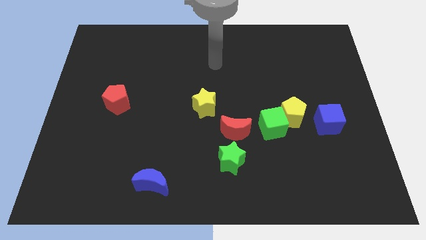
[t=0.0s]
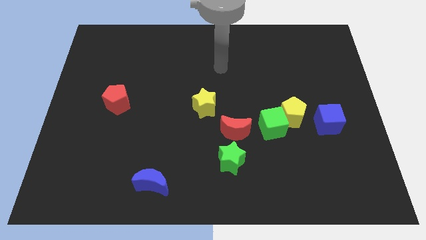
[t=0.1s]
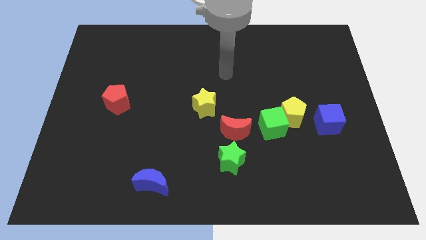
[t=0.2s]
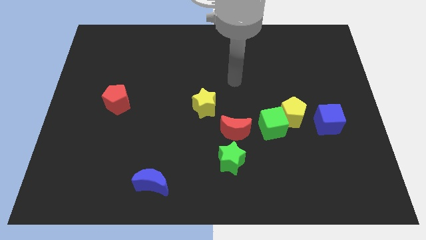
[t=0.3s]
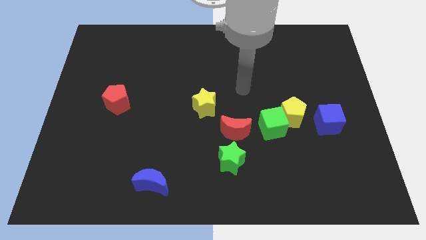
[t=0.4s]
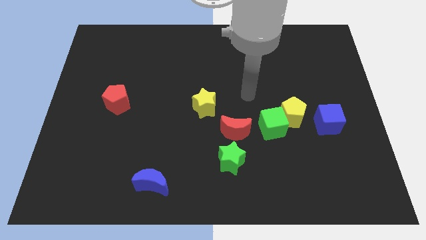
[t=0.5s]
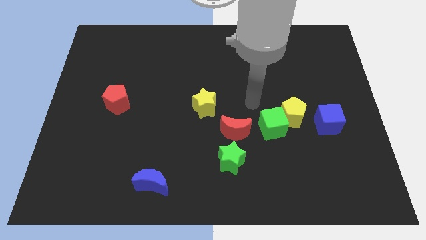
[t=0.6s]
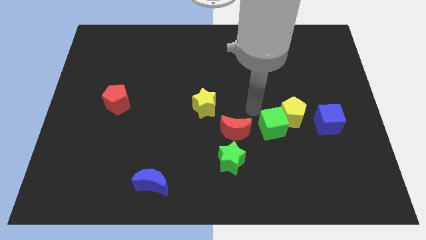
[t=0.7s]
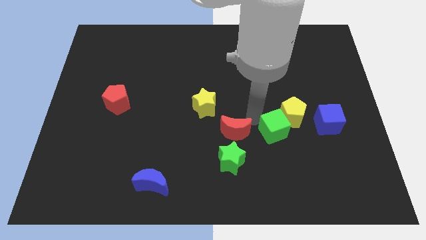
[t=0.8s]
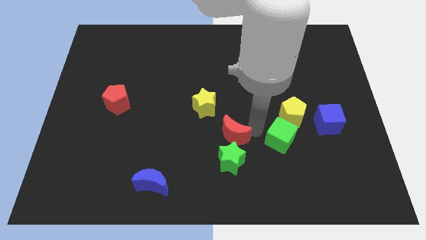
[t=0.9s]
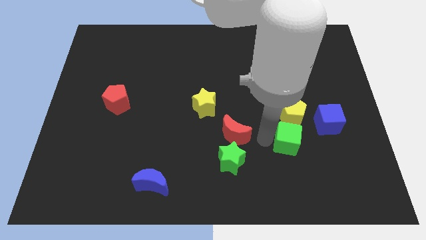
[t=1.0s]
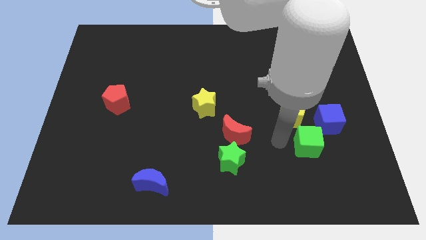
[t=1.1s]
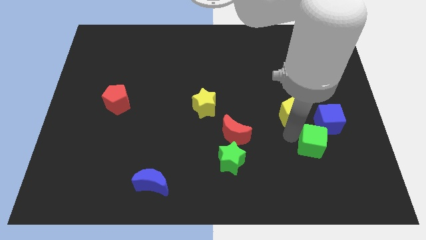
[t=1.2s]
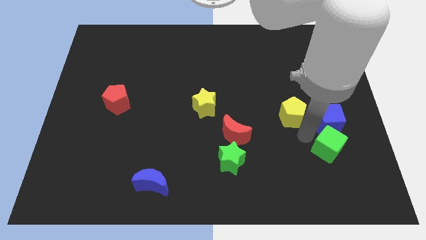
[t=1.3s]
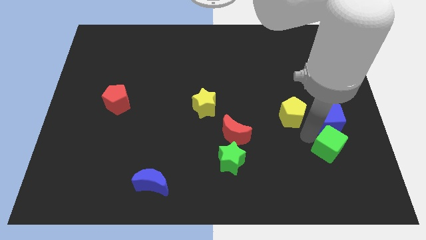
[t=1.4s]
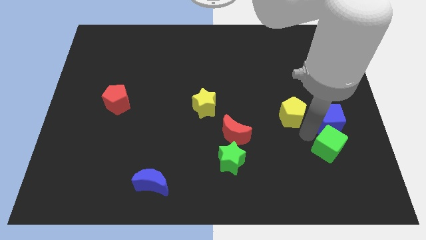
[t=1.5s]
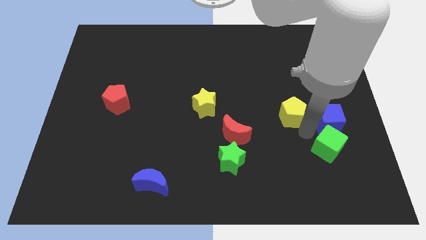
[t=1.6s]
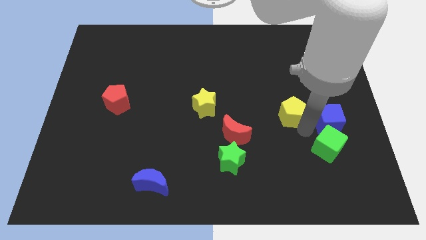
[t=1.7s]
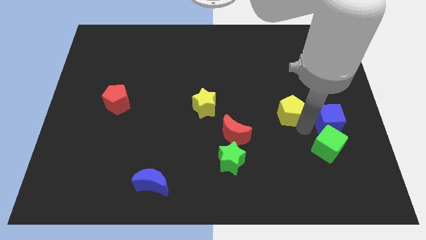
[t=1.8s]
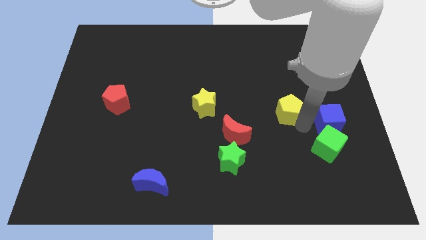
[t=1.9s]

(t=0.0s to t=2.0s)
move the yellow pentagon away from the green cube and blue cube

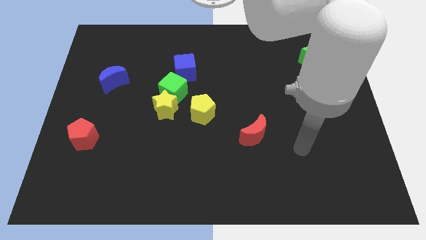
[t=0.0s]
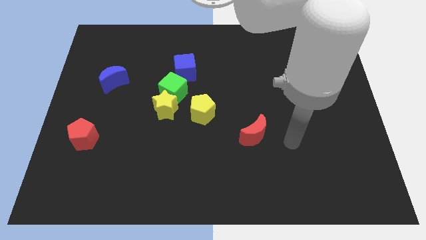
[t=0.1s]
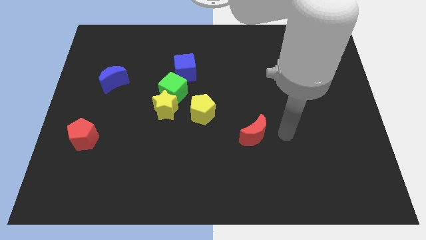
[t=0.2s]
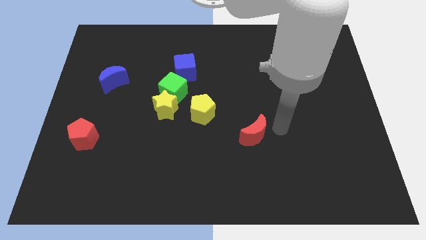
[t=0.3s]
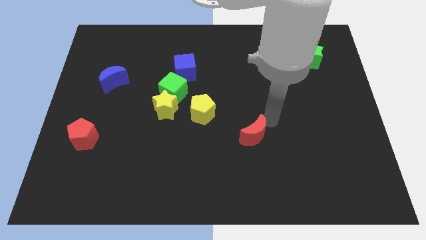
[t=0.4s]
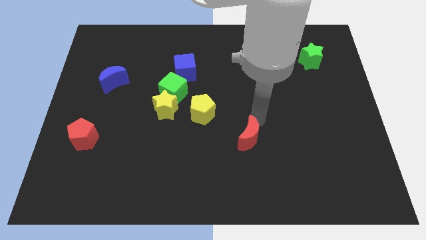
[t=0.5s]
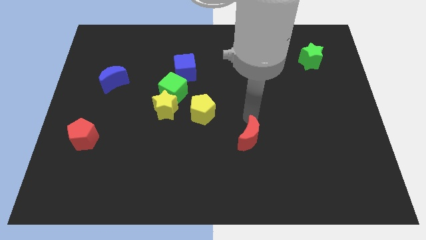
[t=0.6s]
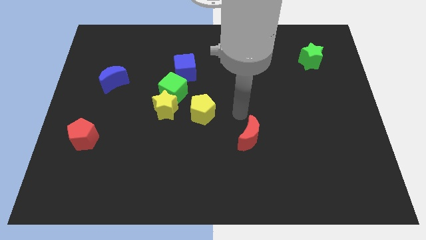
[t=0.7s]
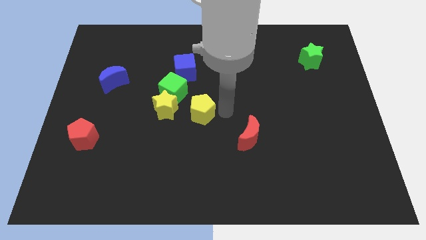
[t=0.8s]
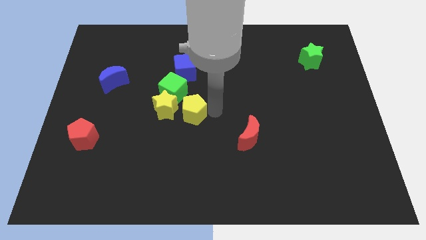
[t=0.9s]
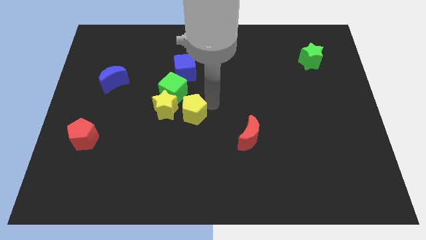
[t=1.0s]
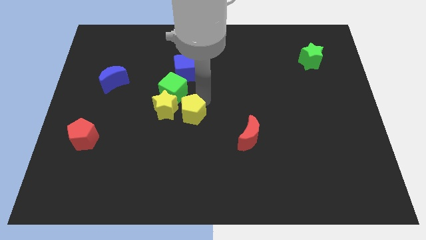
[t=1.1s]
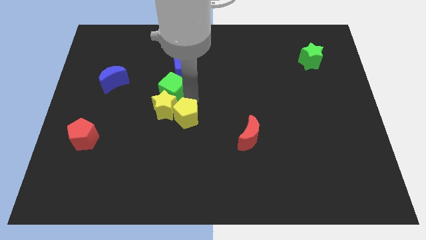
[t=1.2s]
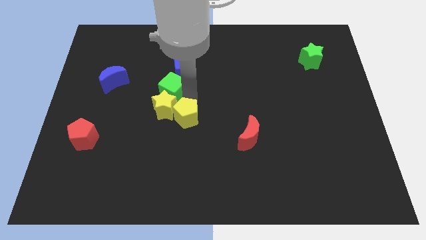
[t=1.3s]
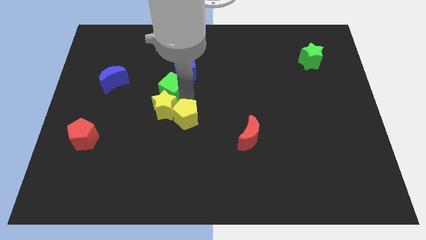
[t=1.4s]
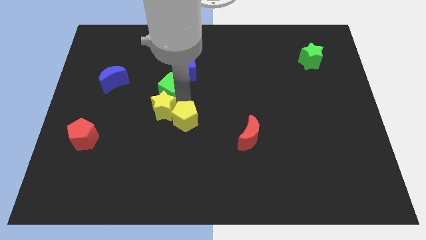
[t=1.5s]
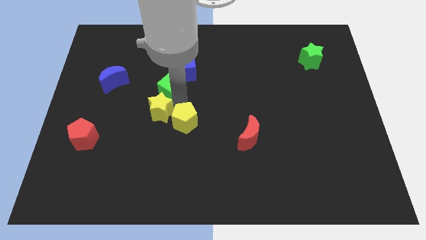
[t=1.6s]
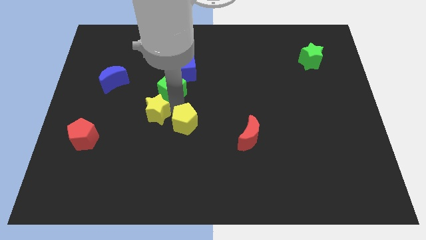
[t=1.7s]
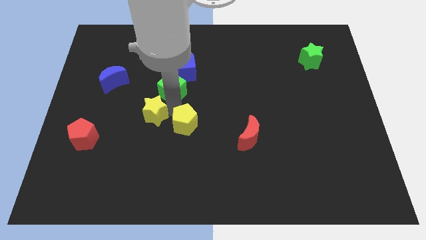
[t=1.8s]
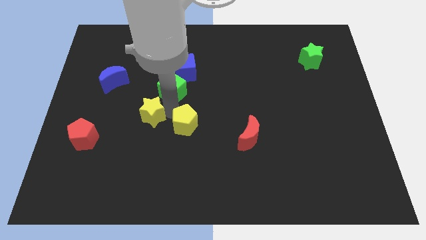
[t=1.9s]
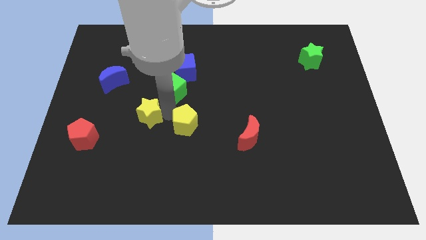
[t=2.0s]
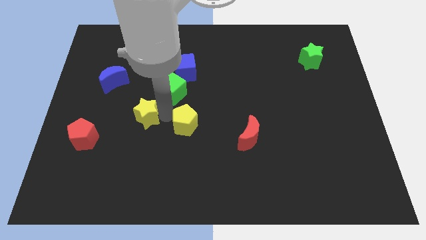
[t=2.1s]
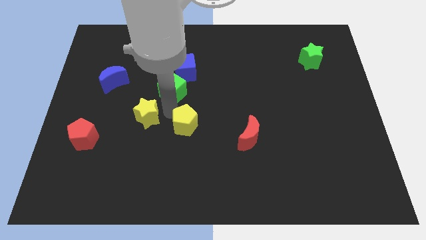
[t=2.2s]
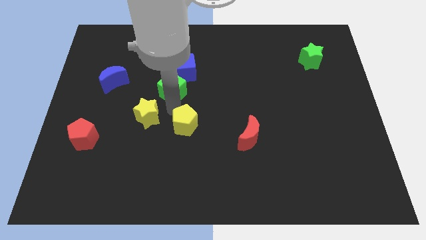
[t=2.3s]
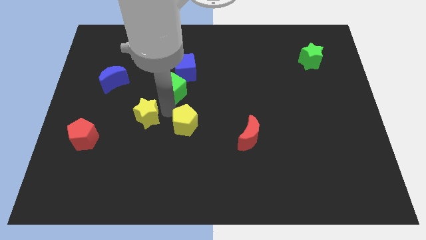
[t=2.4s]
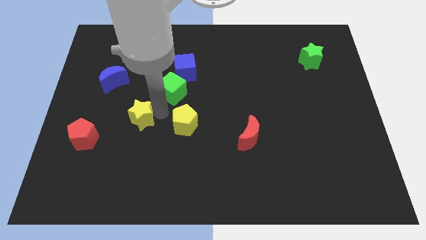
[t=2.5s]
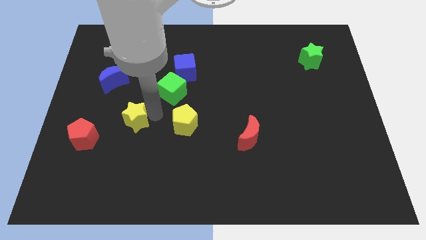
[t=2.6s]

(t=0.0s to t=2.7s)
pull the yellow star apart from the green cube and yellow pentagon

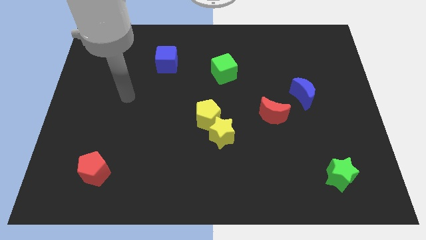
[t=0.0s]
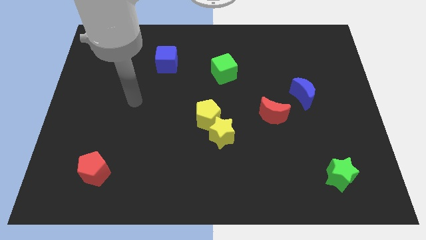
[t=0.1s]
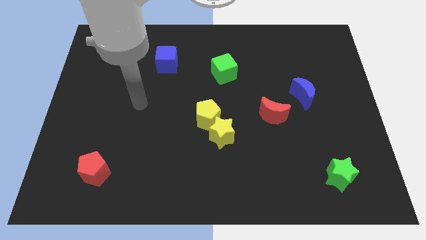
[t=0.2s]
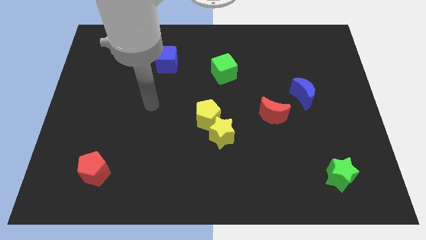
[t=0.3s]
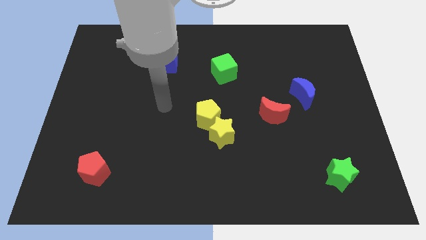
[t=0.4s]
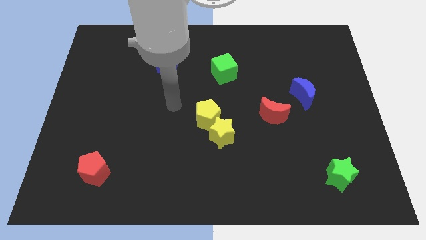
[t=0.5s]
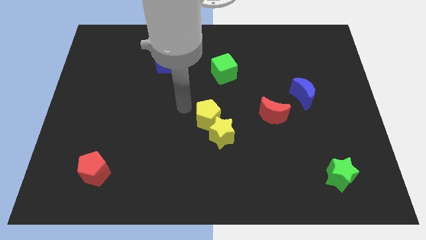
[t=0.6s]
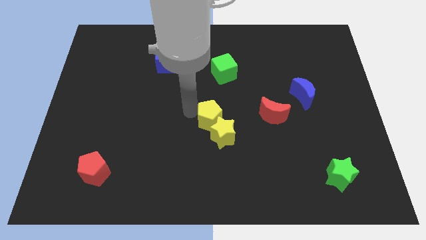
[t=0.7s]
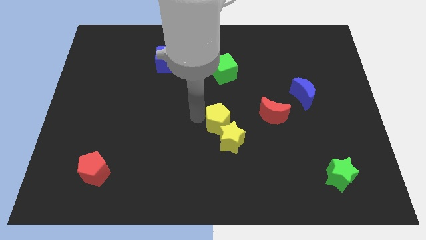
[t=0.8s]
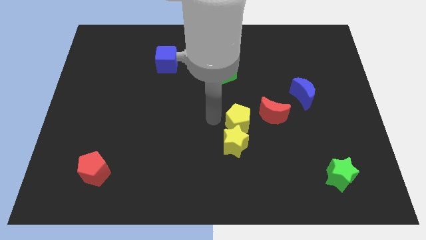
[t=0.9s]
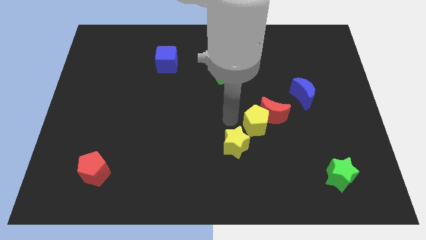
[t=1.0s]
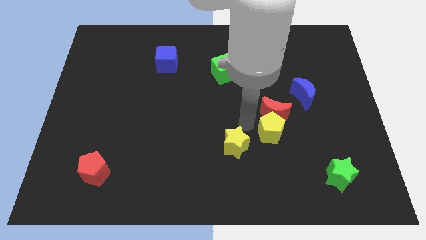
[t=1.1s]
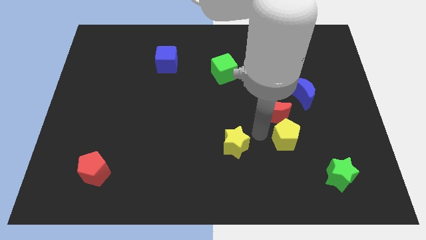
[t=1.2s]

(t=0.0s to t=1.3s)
separate the yellow star from the yellow pentagon

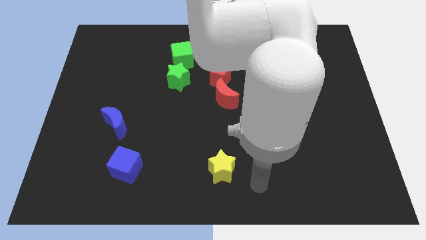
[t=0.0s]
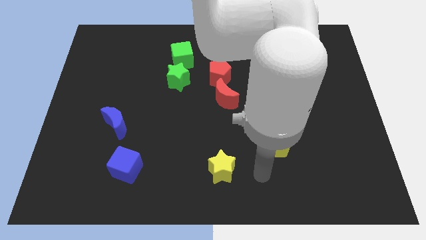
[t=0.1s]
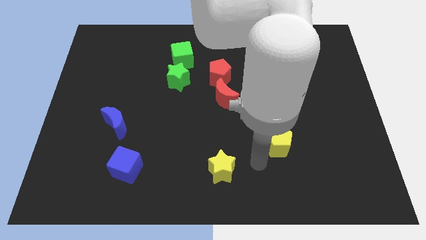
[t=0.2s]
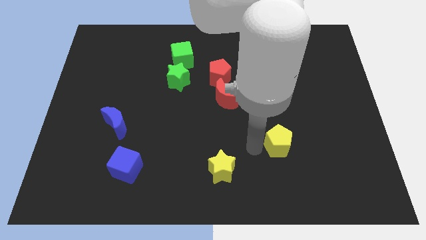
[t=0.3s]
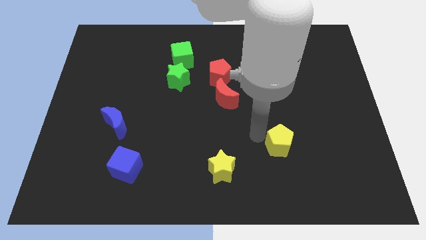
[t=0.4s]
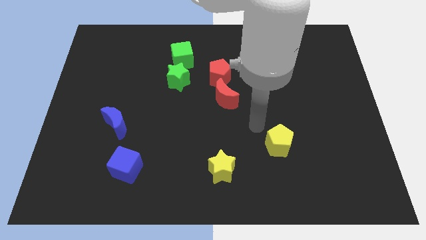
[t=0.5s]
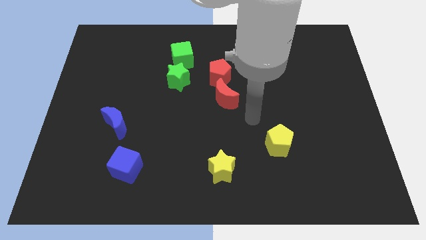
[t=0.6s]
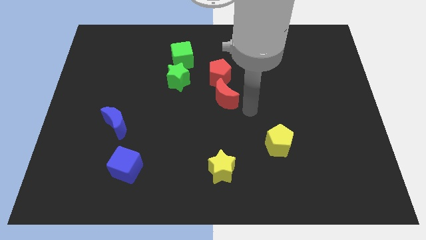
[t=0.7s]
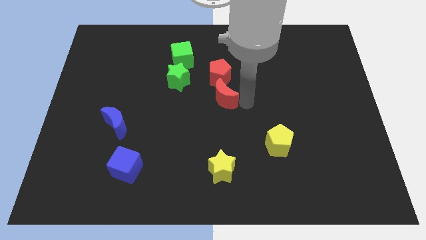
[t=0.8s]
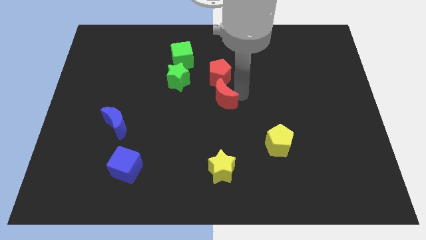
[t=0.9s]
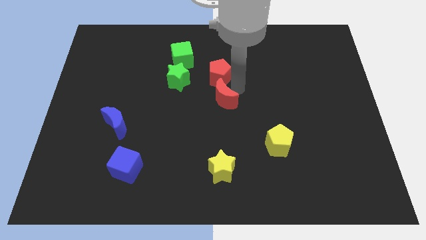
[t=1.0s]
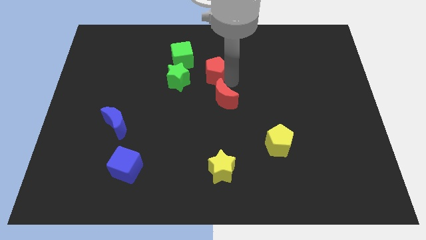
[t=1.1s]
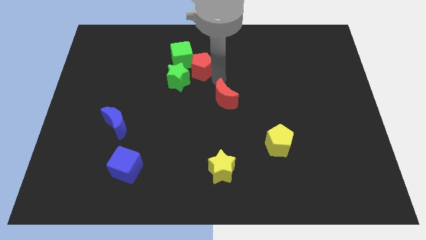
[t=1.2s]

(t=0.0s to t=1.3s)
pull the red moon apart from the red pentagon

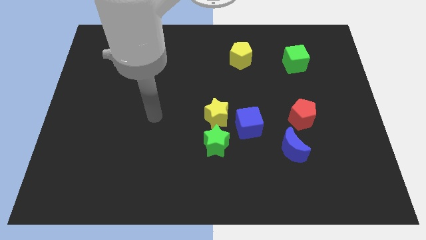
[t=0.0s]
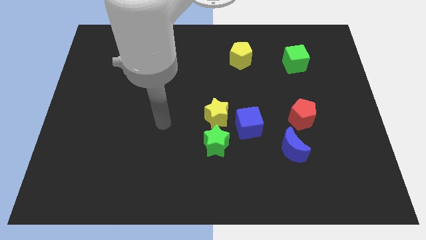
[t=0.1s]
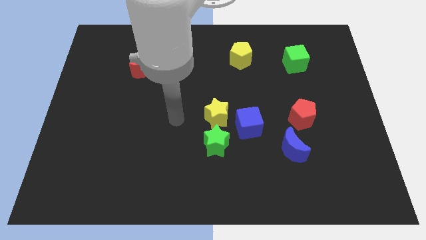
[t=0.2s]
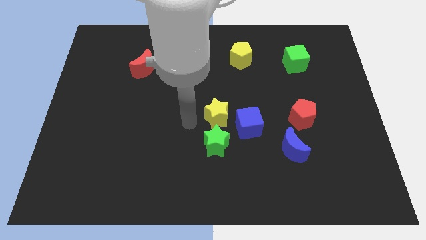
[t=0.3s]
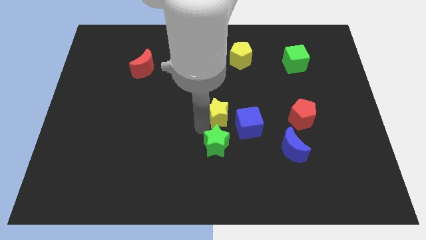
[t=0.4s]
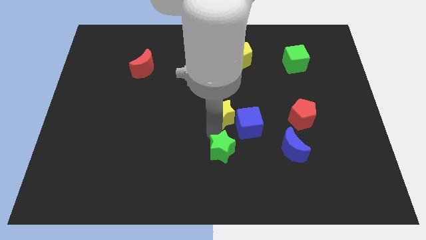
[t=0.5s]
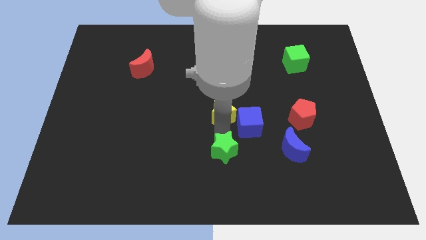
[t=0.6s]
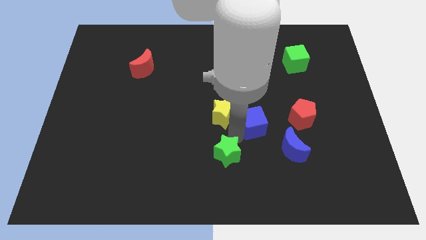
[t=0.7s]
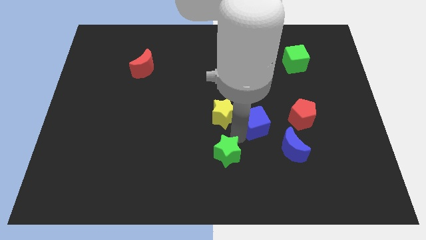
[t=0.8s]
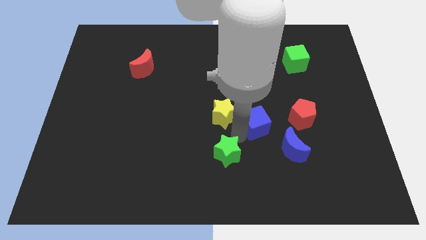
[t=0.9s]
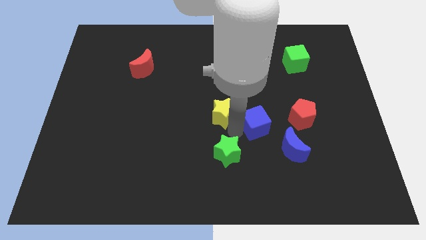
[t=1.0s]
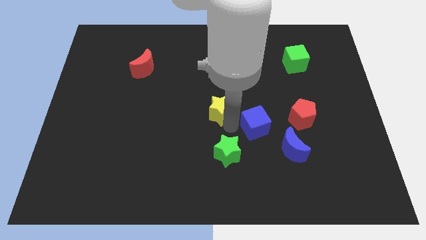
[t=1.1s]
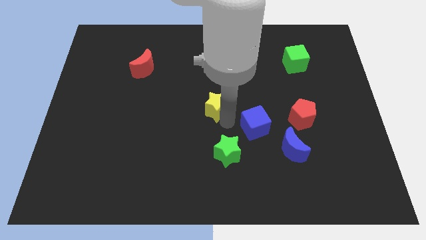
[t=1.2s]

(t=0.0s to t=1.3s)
separate the yellow star from the green star and blue cube

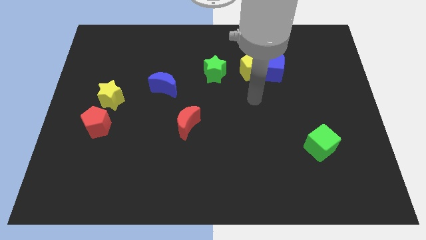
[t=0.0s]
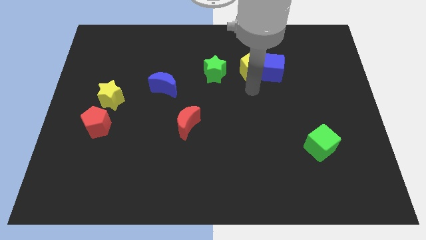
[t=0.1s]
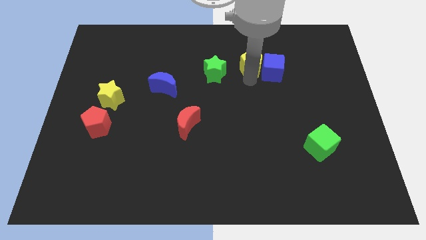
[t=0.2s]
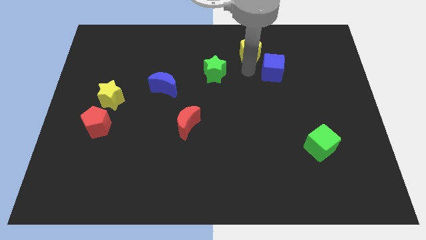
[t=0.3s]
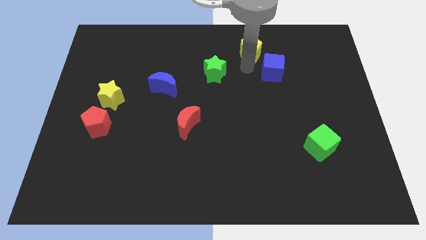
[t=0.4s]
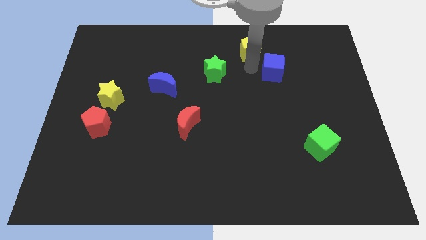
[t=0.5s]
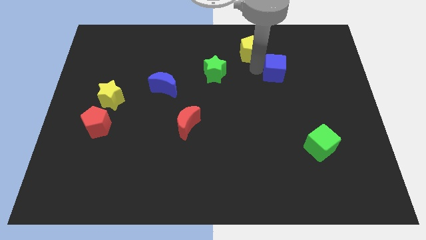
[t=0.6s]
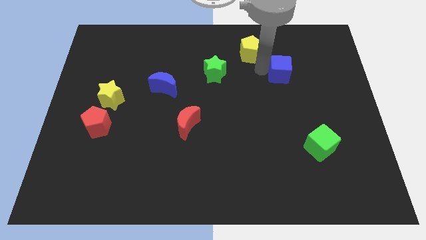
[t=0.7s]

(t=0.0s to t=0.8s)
pull the blue cube apart from the yellow pentagon
